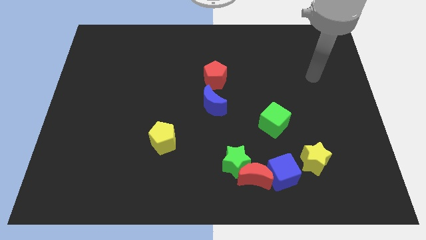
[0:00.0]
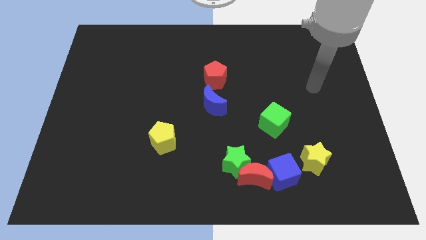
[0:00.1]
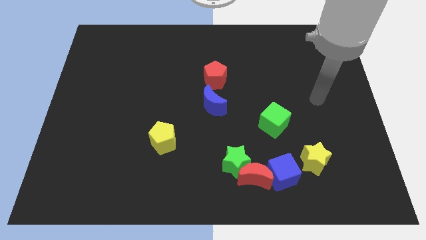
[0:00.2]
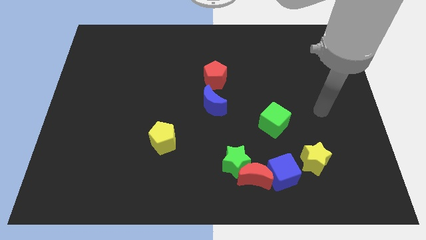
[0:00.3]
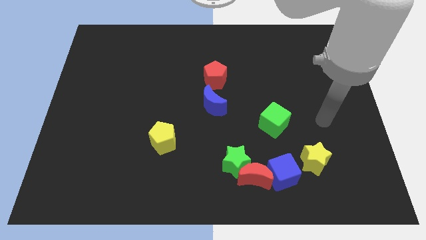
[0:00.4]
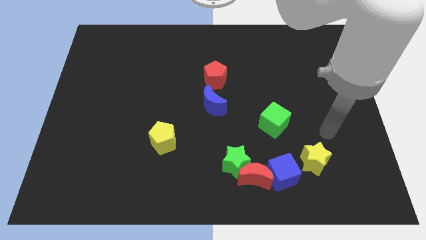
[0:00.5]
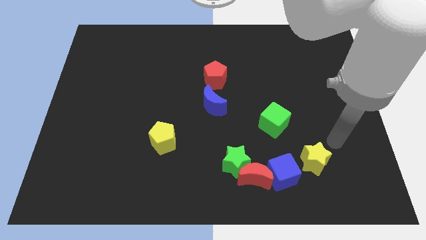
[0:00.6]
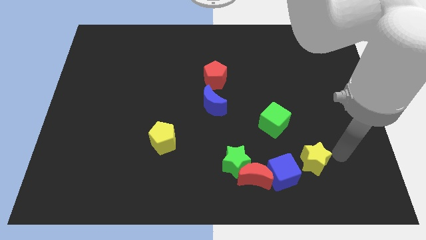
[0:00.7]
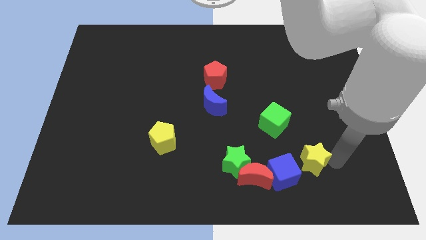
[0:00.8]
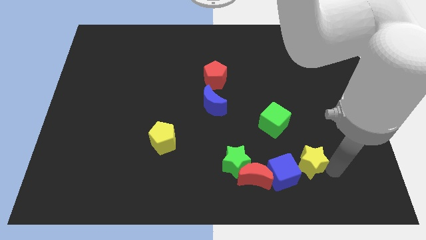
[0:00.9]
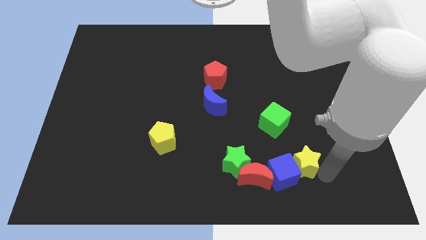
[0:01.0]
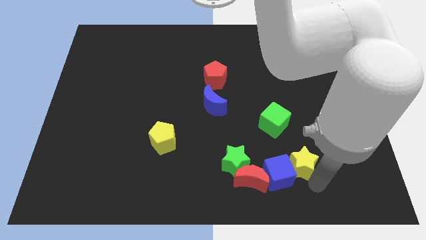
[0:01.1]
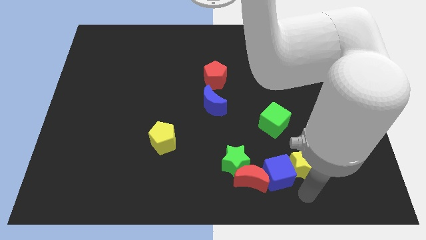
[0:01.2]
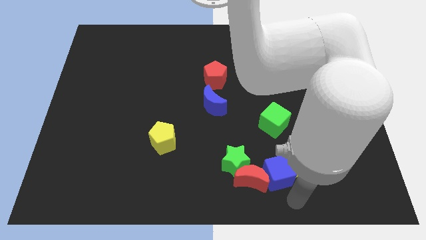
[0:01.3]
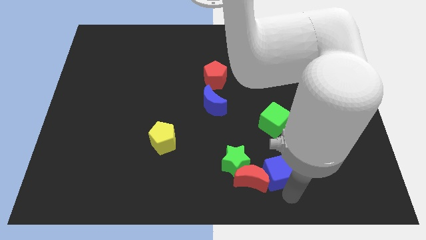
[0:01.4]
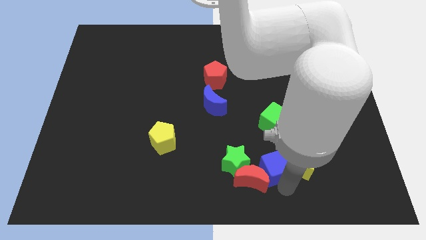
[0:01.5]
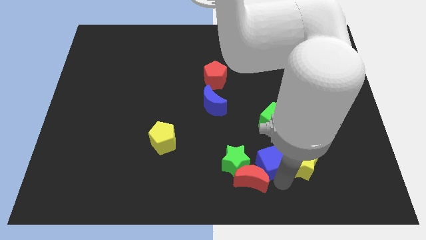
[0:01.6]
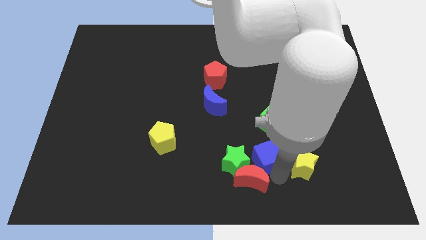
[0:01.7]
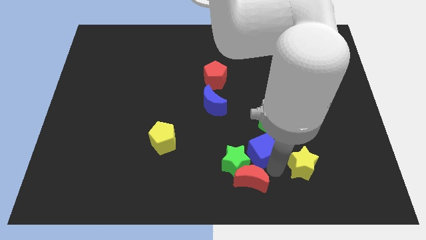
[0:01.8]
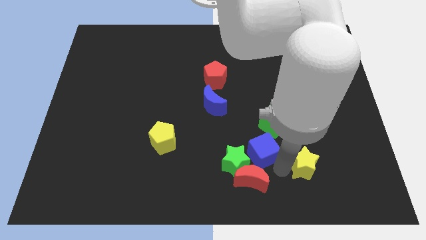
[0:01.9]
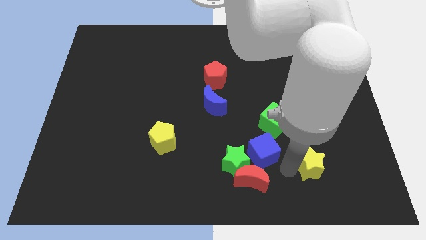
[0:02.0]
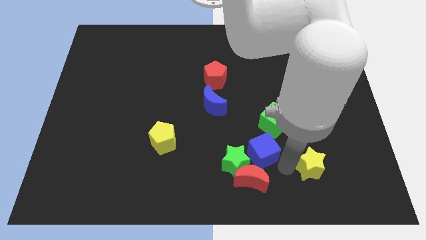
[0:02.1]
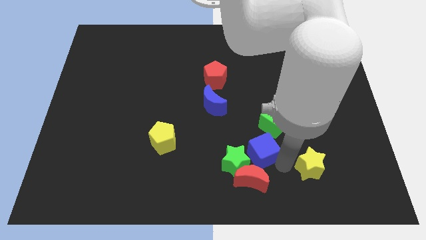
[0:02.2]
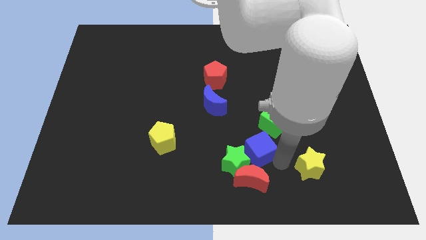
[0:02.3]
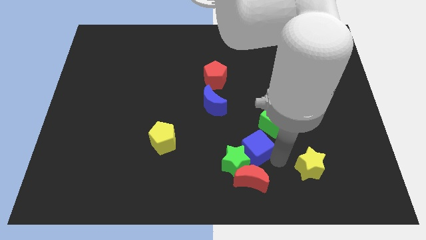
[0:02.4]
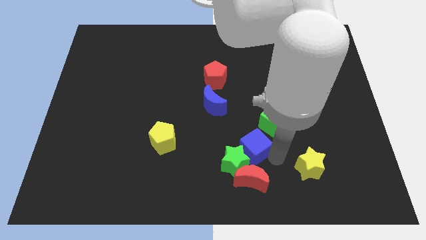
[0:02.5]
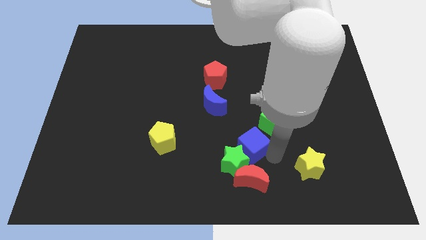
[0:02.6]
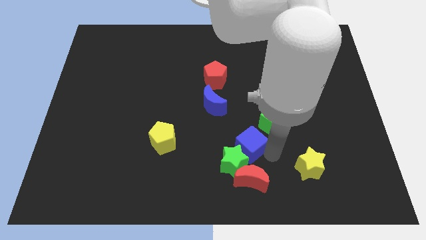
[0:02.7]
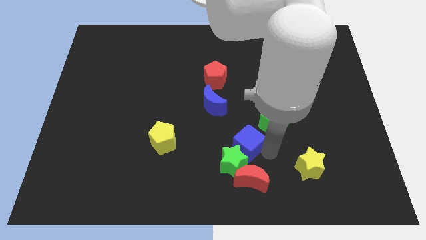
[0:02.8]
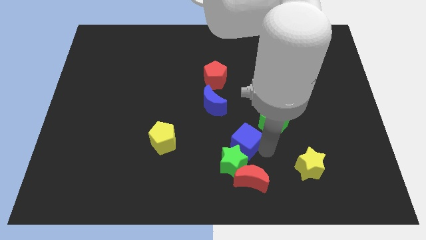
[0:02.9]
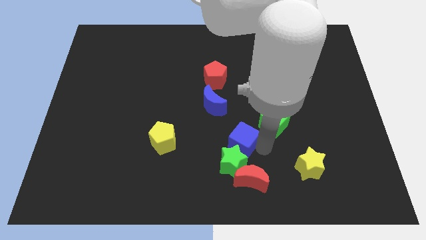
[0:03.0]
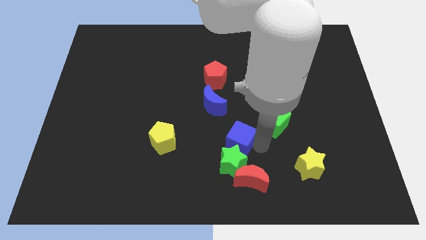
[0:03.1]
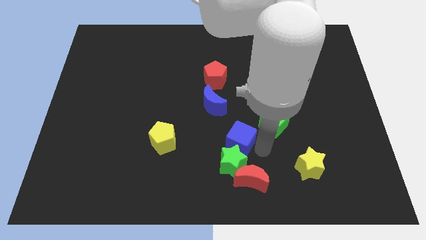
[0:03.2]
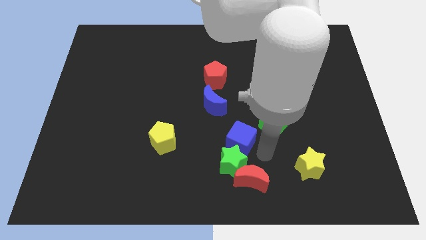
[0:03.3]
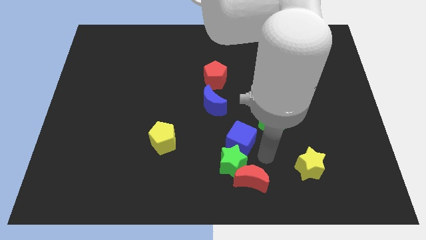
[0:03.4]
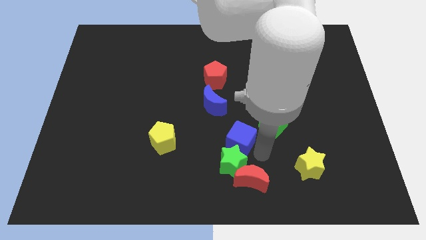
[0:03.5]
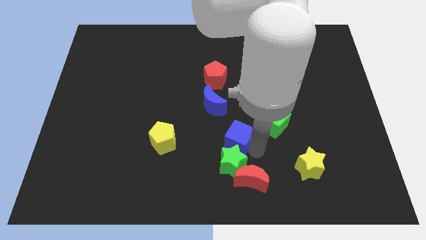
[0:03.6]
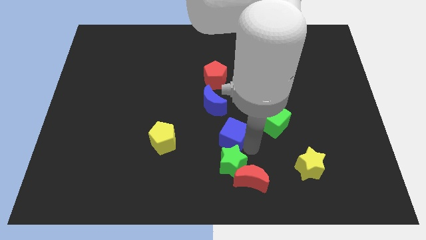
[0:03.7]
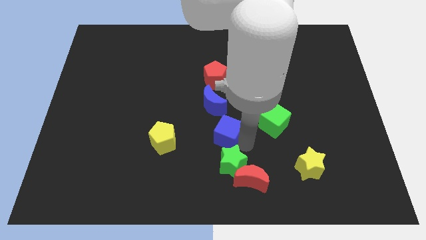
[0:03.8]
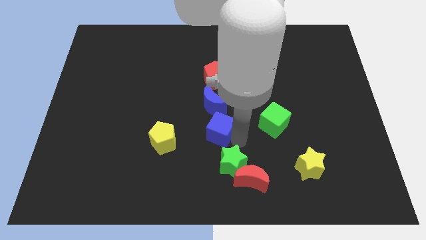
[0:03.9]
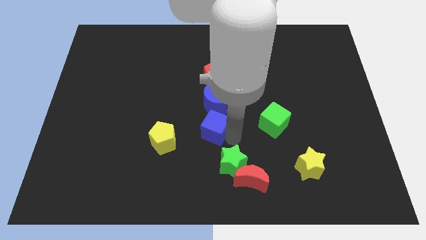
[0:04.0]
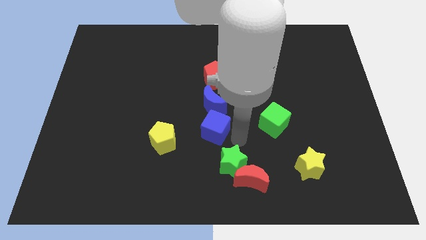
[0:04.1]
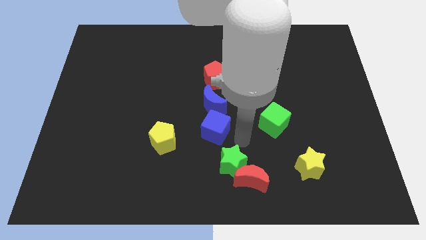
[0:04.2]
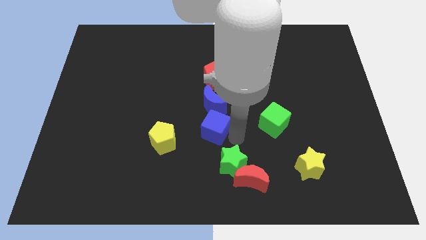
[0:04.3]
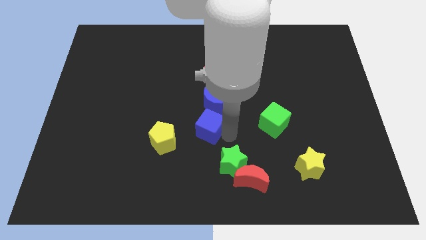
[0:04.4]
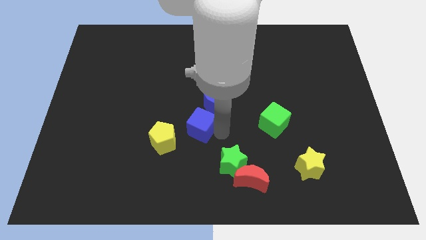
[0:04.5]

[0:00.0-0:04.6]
push the blue cube upwards and then to the left

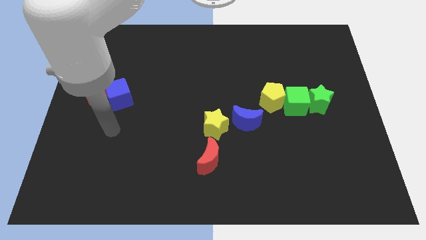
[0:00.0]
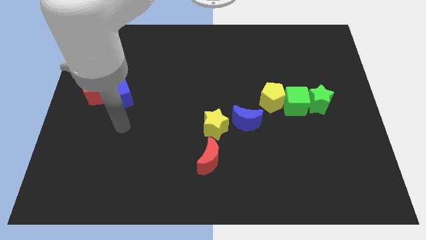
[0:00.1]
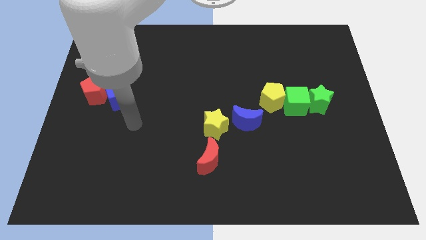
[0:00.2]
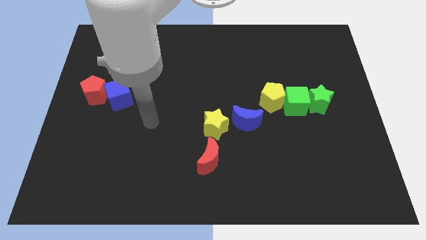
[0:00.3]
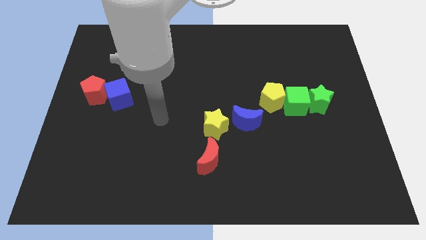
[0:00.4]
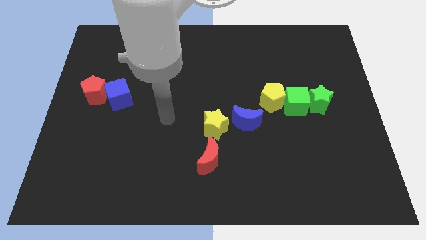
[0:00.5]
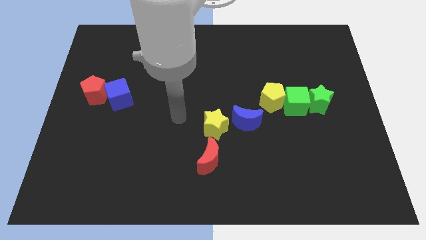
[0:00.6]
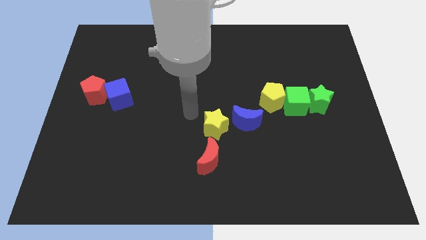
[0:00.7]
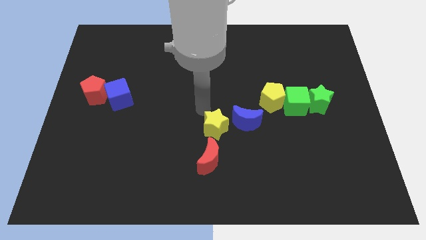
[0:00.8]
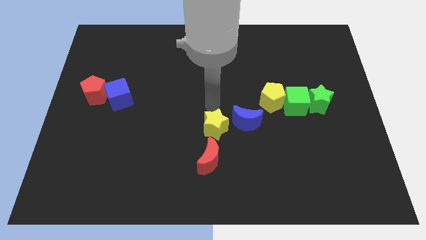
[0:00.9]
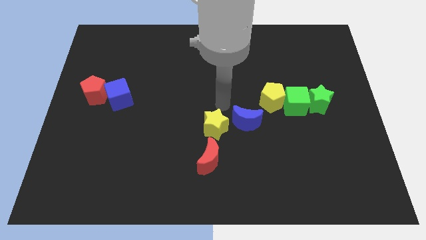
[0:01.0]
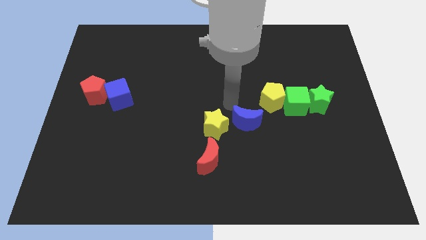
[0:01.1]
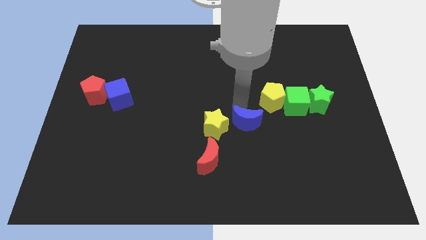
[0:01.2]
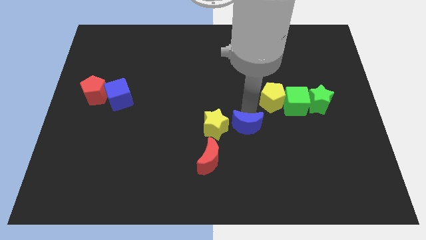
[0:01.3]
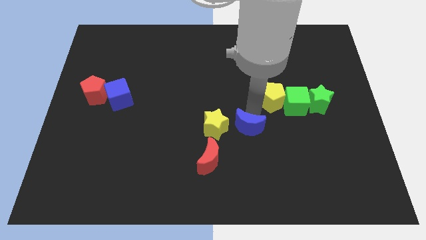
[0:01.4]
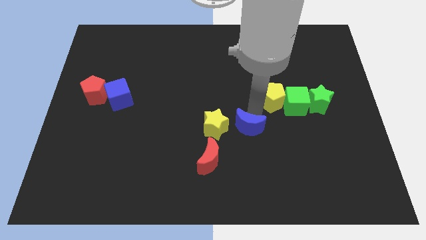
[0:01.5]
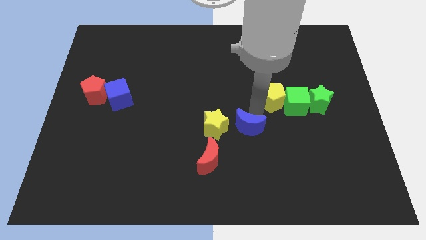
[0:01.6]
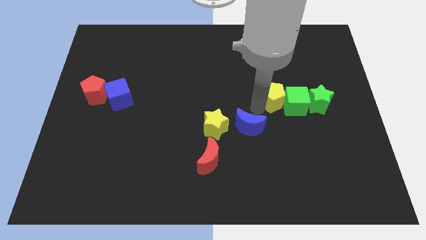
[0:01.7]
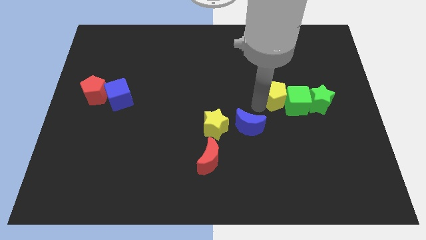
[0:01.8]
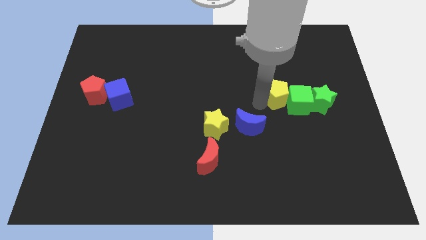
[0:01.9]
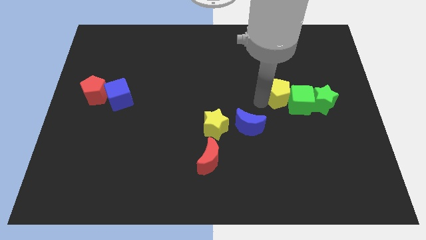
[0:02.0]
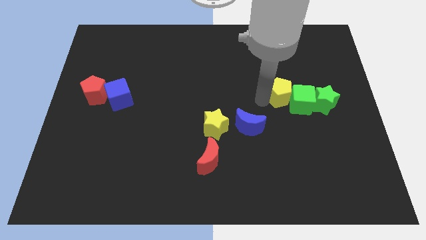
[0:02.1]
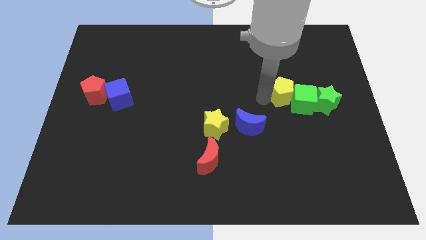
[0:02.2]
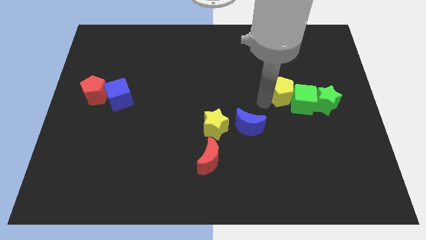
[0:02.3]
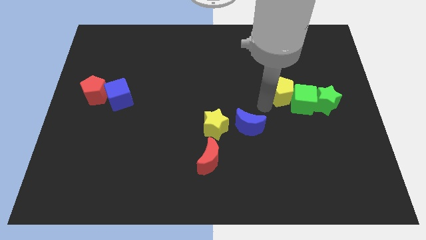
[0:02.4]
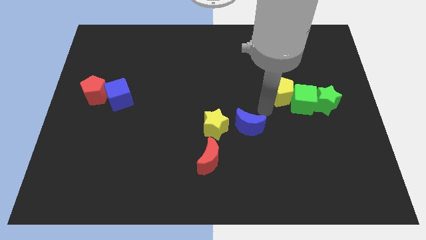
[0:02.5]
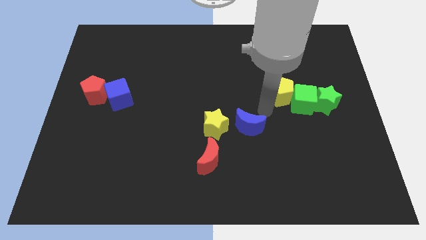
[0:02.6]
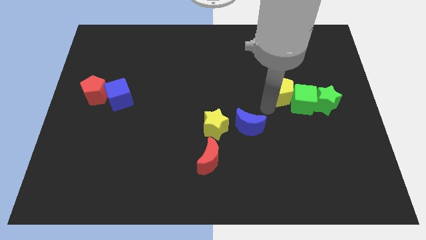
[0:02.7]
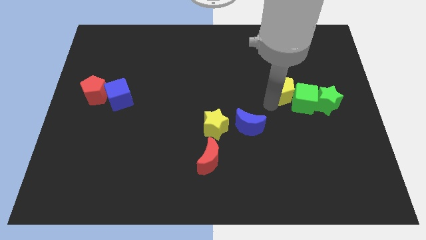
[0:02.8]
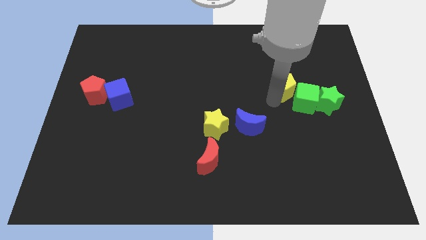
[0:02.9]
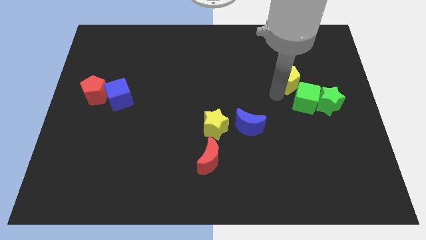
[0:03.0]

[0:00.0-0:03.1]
slide the yellow pentagon diagonally up and to the right a little

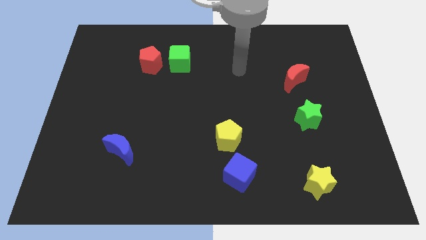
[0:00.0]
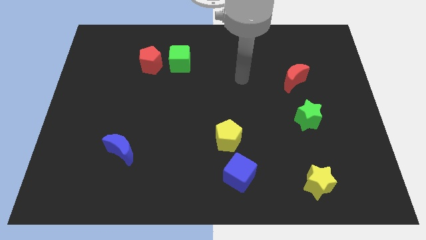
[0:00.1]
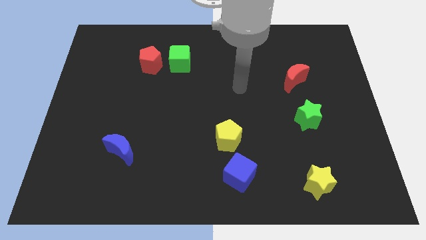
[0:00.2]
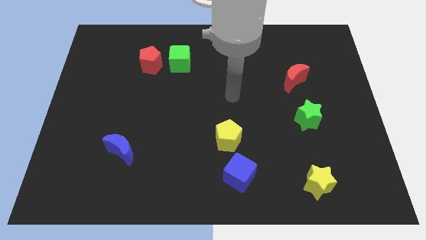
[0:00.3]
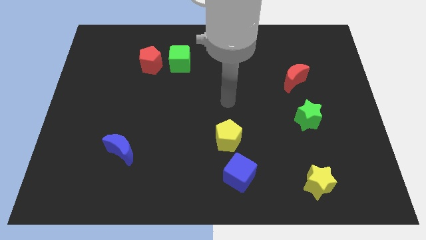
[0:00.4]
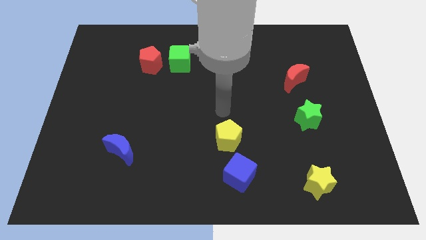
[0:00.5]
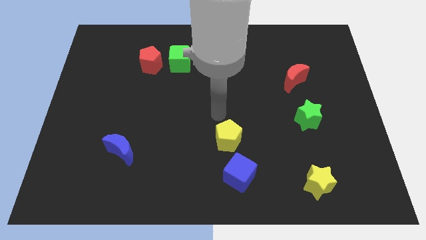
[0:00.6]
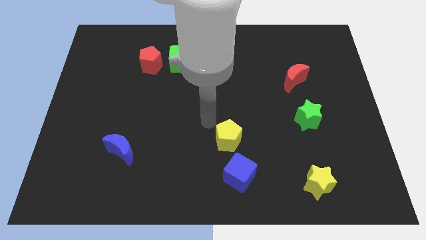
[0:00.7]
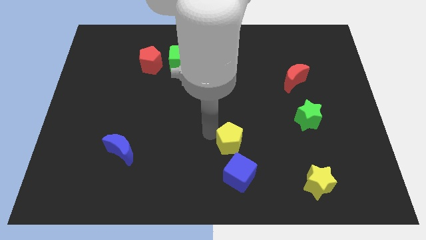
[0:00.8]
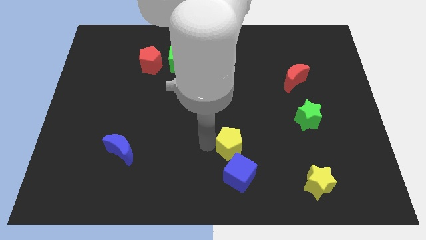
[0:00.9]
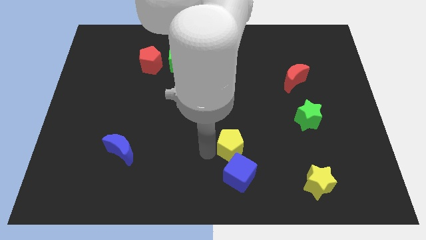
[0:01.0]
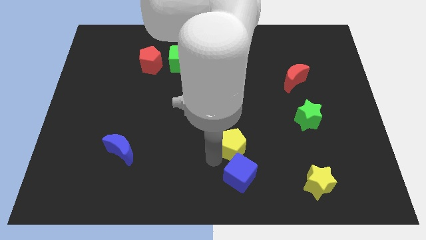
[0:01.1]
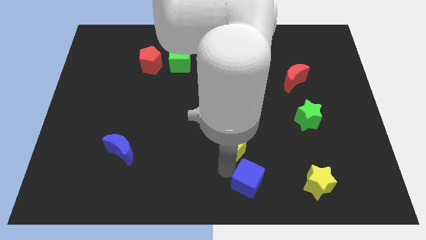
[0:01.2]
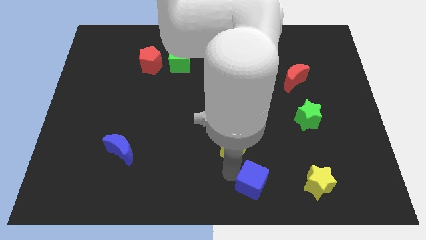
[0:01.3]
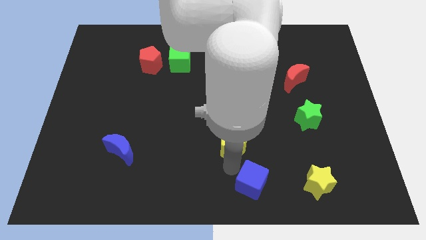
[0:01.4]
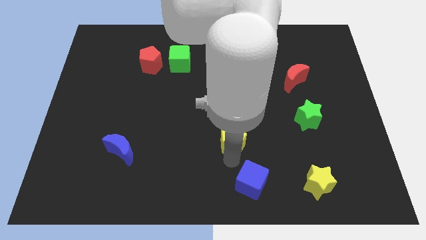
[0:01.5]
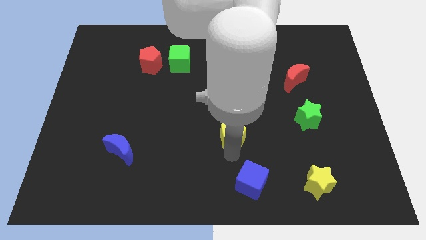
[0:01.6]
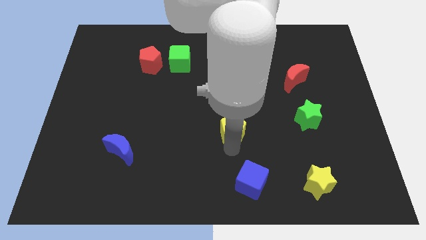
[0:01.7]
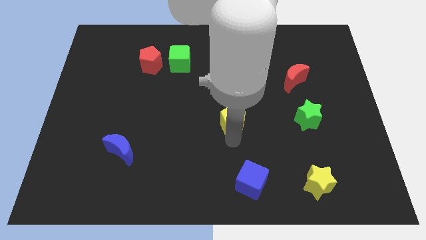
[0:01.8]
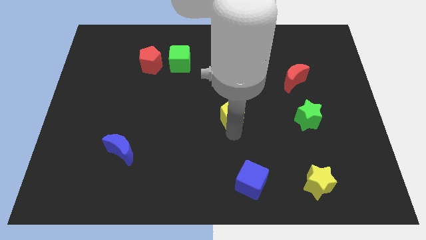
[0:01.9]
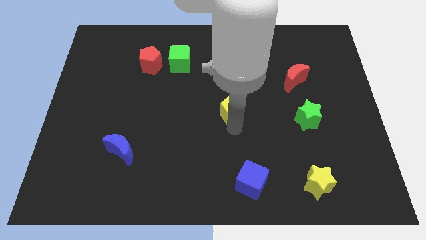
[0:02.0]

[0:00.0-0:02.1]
slide the yellow pentagon a little upwards
